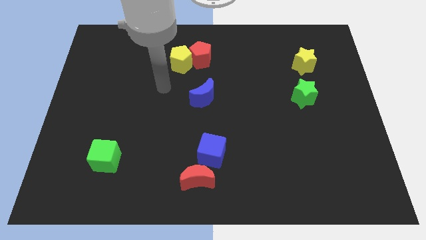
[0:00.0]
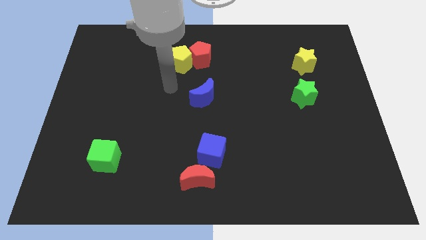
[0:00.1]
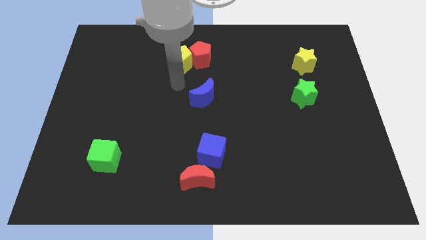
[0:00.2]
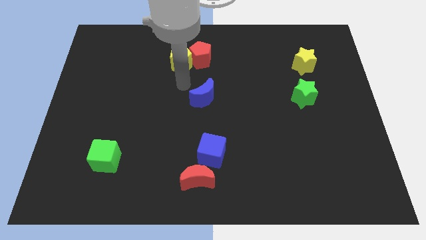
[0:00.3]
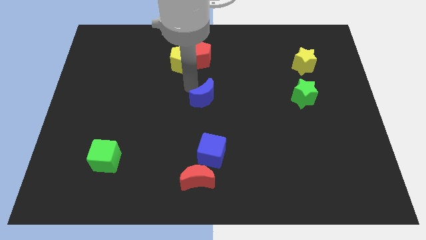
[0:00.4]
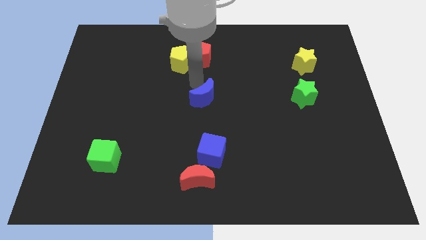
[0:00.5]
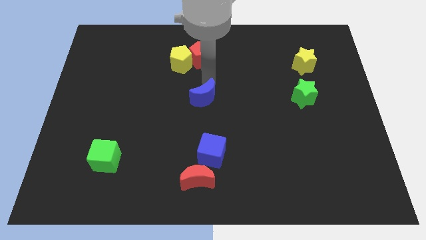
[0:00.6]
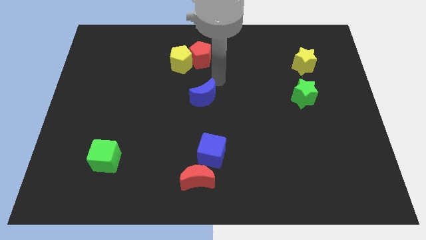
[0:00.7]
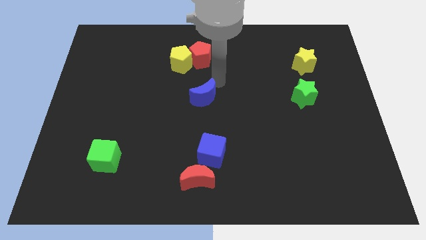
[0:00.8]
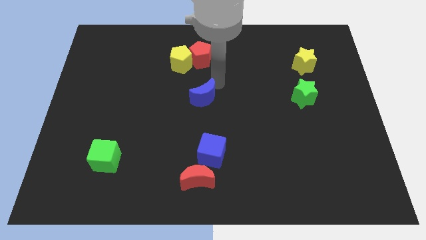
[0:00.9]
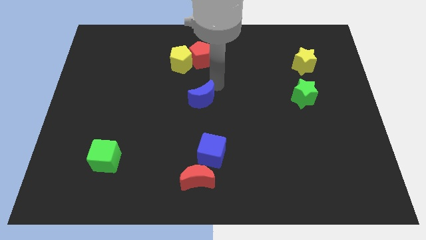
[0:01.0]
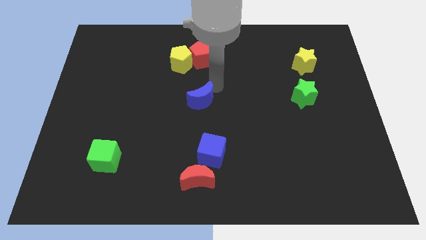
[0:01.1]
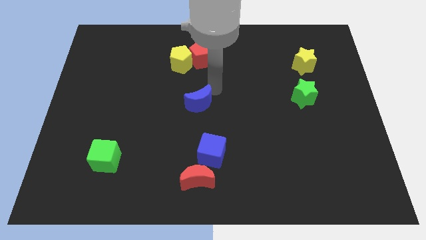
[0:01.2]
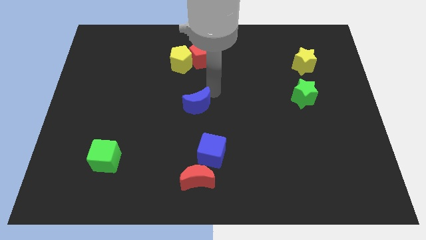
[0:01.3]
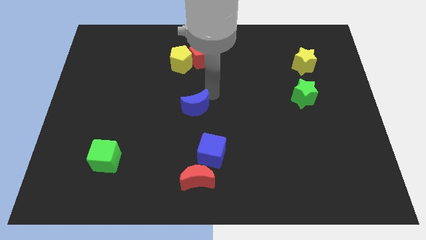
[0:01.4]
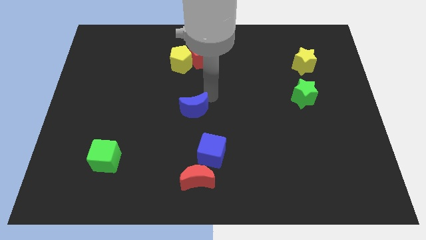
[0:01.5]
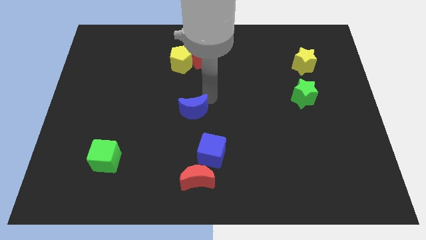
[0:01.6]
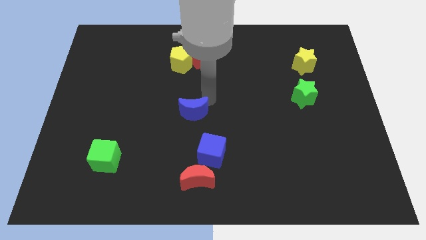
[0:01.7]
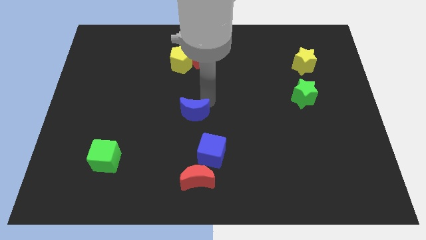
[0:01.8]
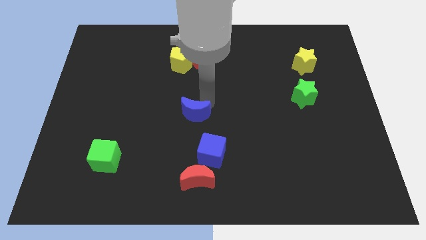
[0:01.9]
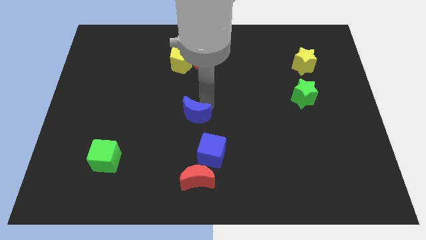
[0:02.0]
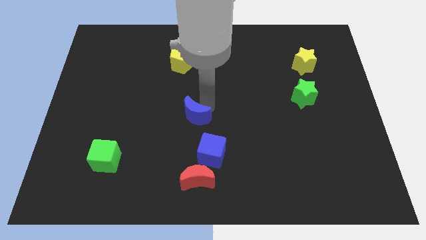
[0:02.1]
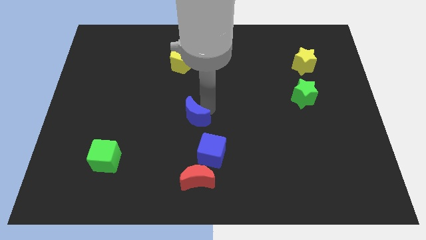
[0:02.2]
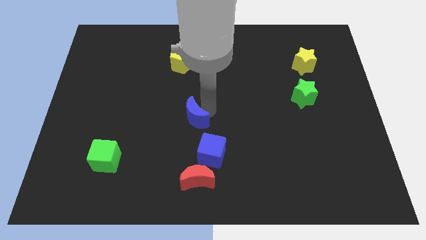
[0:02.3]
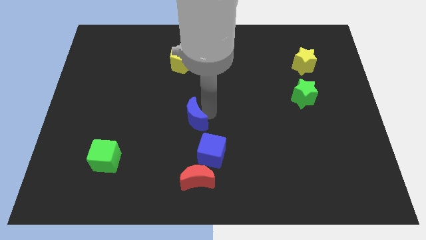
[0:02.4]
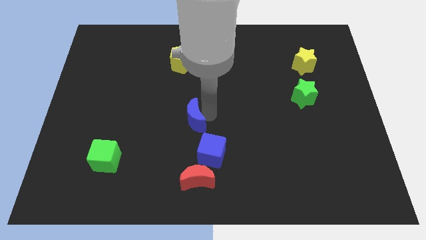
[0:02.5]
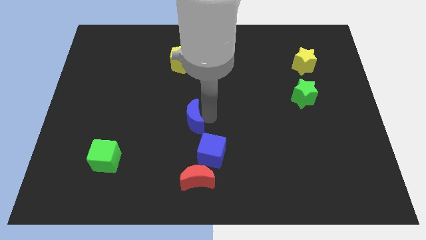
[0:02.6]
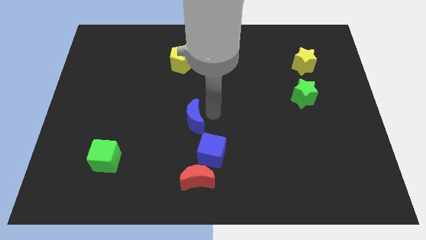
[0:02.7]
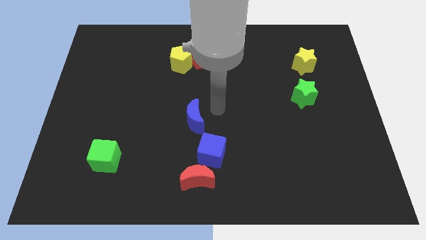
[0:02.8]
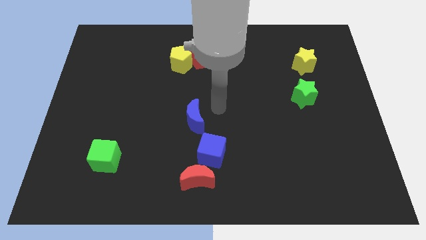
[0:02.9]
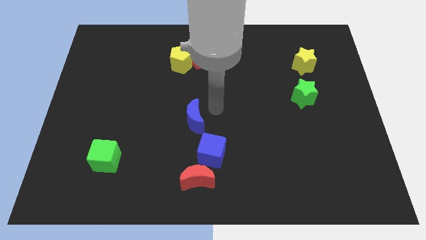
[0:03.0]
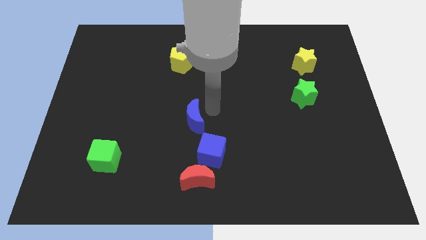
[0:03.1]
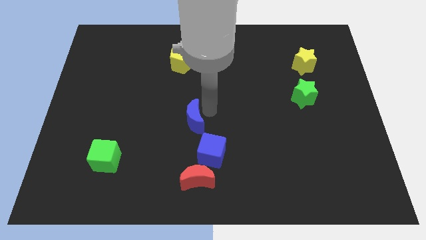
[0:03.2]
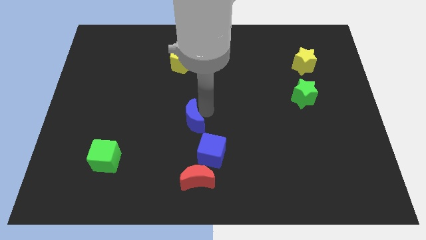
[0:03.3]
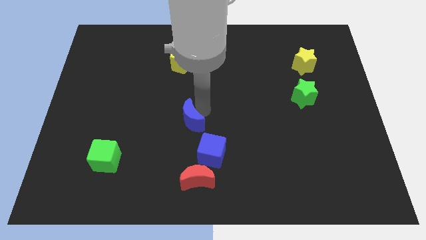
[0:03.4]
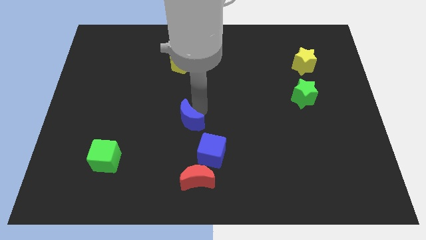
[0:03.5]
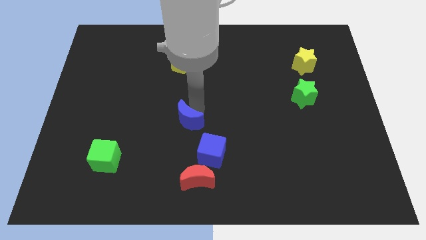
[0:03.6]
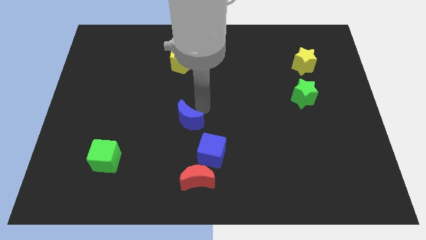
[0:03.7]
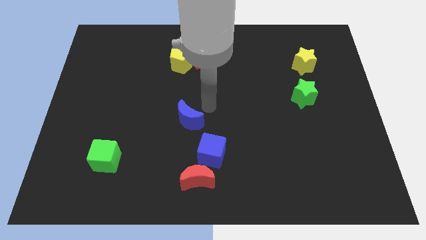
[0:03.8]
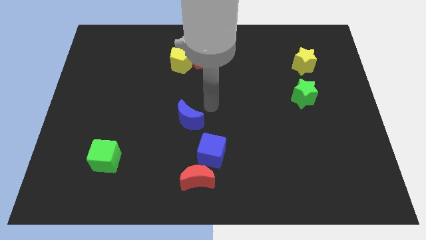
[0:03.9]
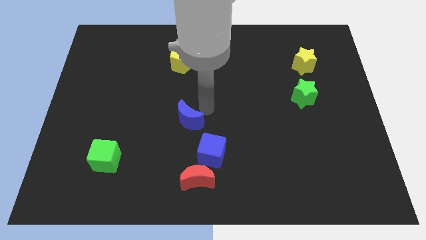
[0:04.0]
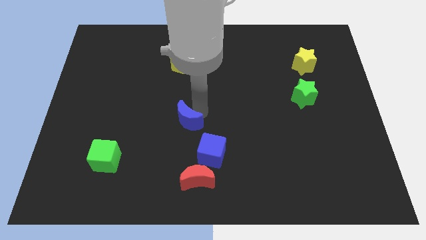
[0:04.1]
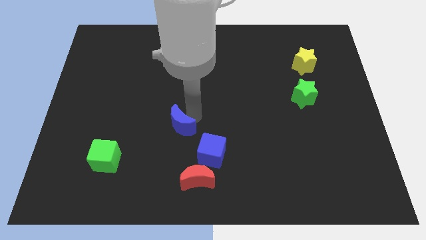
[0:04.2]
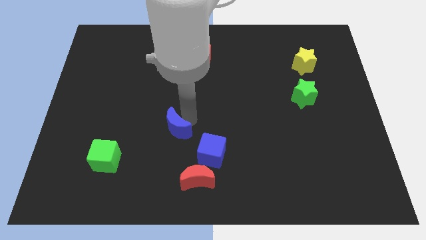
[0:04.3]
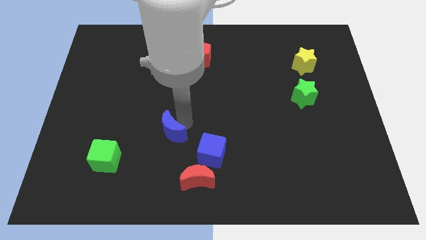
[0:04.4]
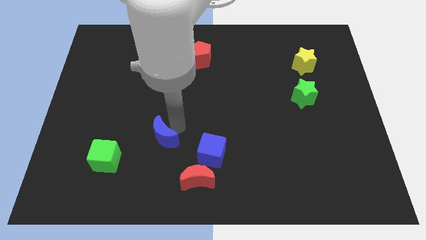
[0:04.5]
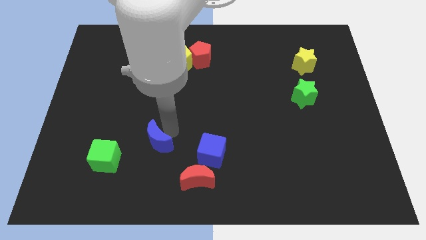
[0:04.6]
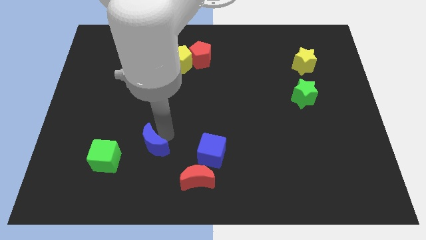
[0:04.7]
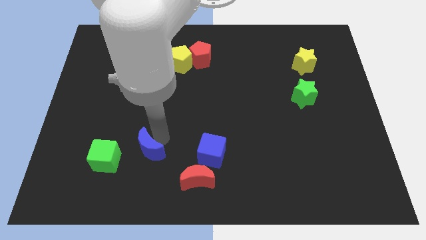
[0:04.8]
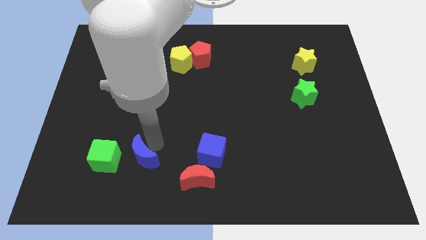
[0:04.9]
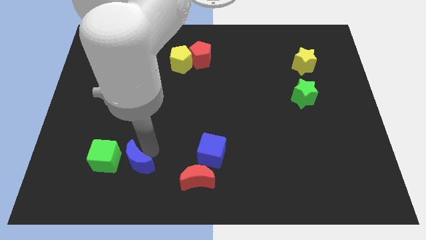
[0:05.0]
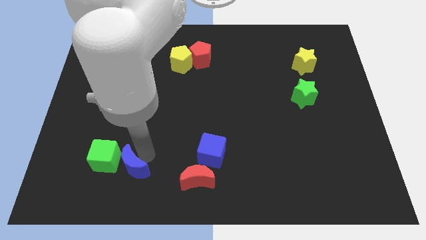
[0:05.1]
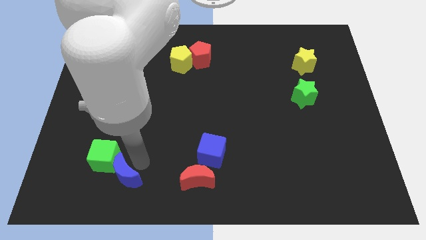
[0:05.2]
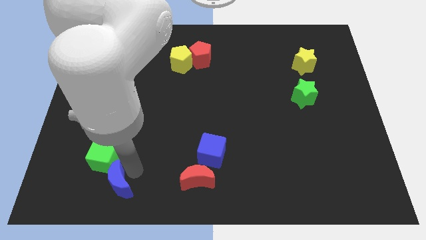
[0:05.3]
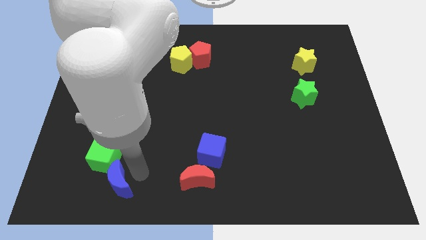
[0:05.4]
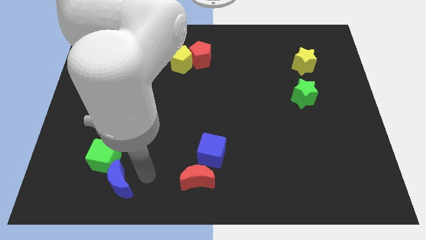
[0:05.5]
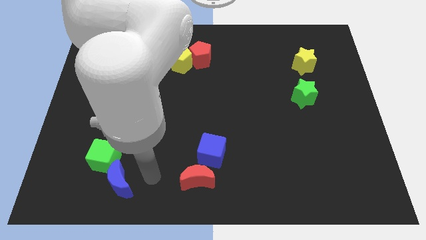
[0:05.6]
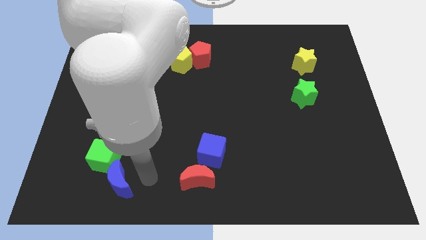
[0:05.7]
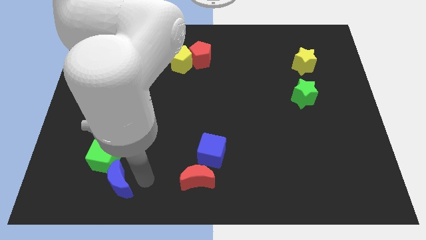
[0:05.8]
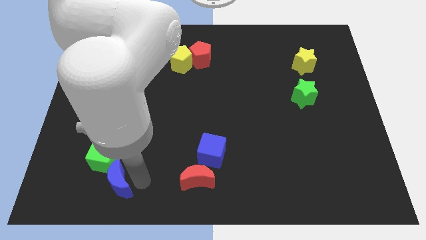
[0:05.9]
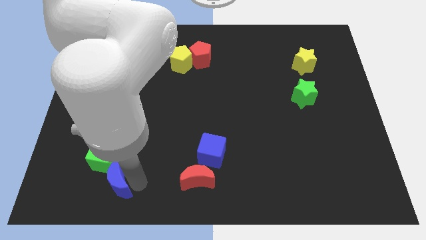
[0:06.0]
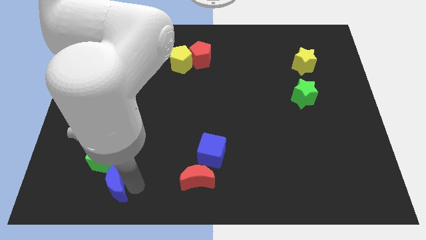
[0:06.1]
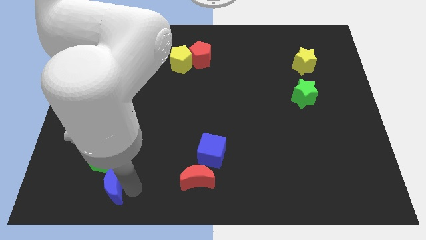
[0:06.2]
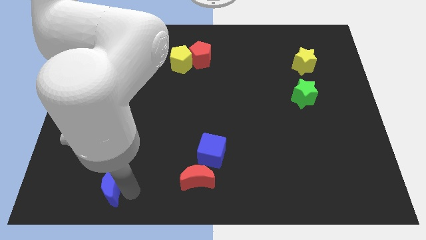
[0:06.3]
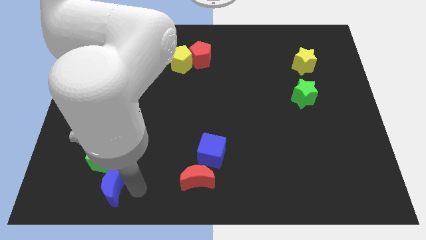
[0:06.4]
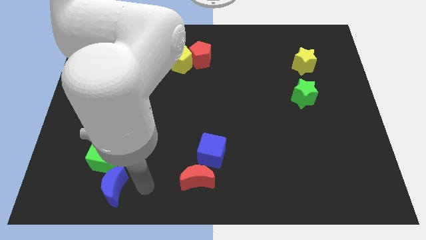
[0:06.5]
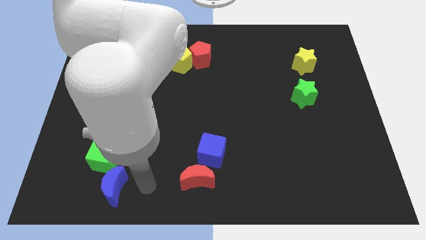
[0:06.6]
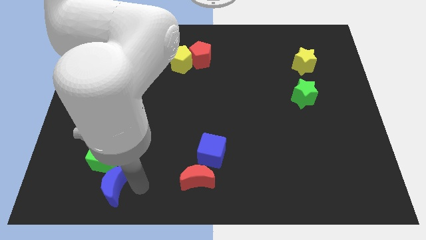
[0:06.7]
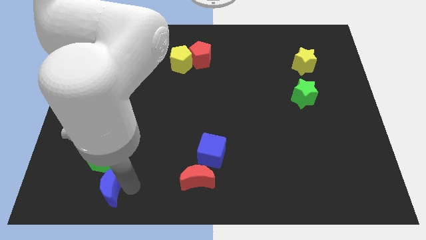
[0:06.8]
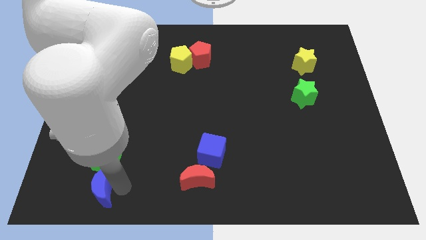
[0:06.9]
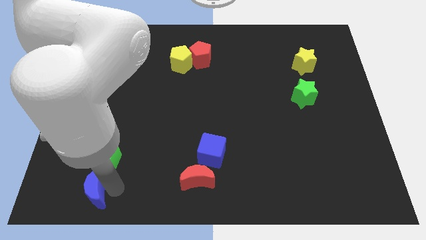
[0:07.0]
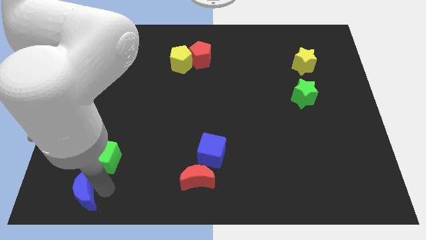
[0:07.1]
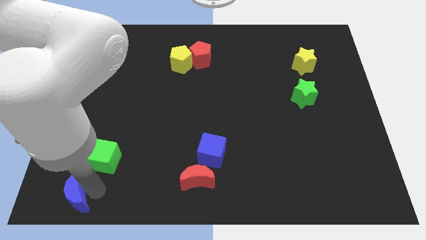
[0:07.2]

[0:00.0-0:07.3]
push the blue moon to the bottom left corner

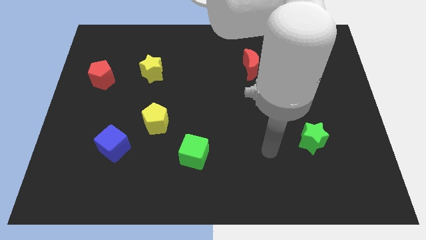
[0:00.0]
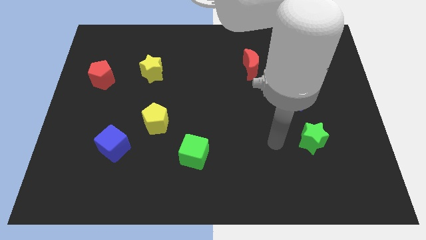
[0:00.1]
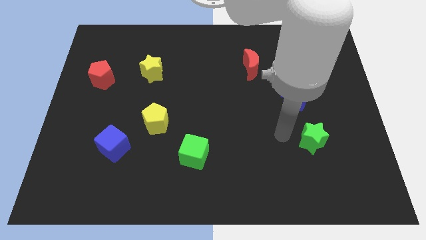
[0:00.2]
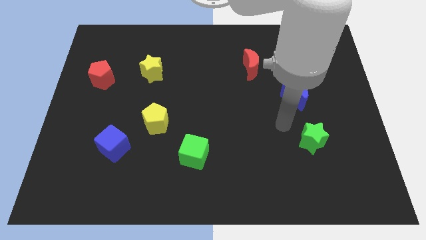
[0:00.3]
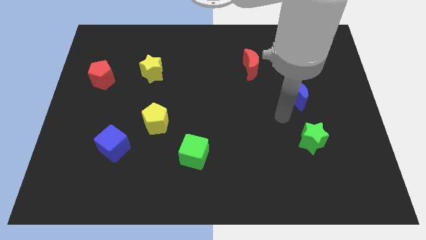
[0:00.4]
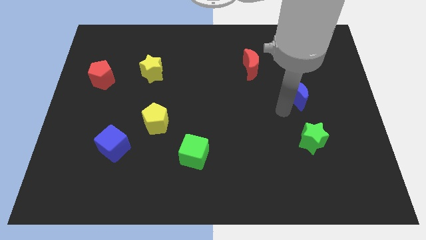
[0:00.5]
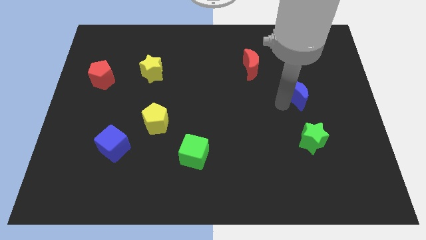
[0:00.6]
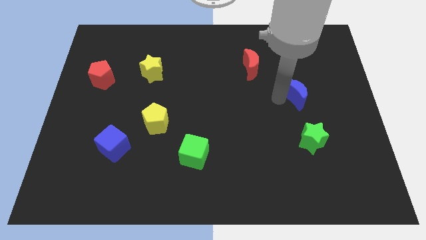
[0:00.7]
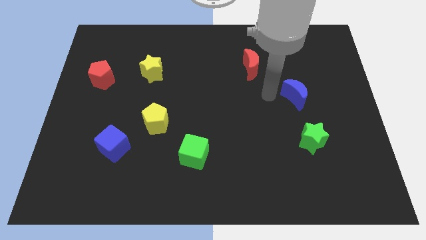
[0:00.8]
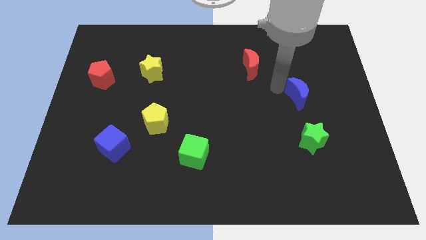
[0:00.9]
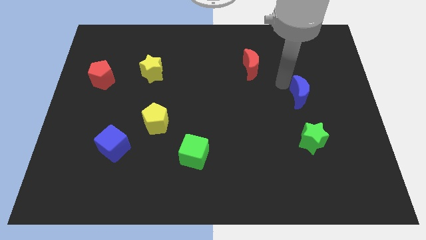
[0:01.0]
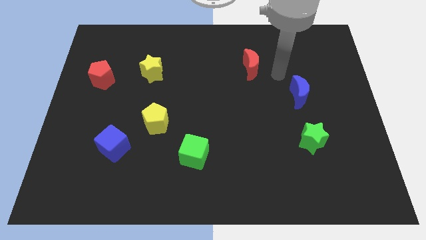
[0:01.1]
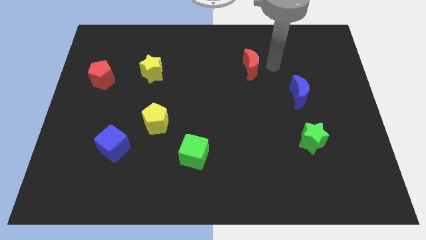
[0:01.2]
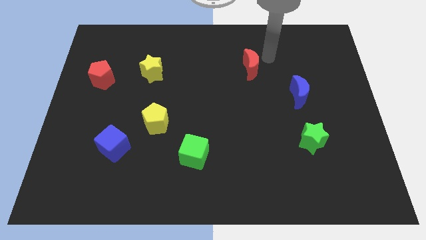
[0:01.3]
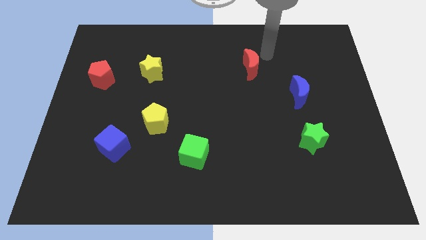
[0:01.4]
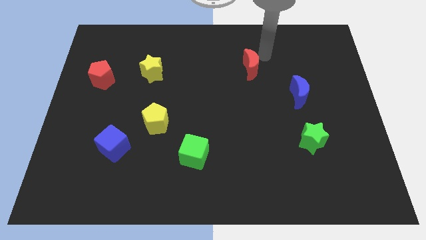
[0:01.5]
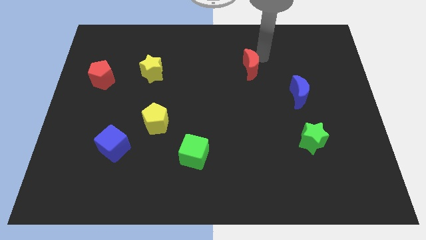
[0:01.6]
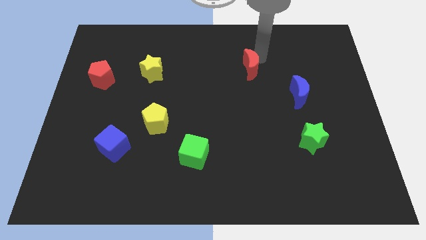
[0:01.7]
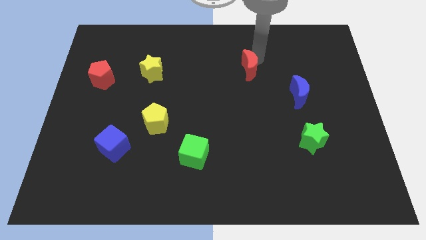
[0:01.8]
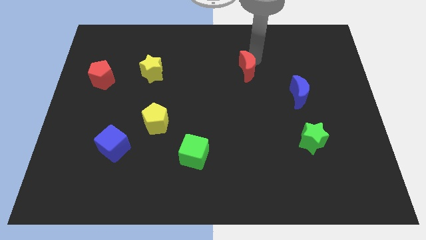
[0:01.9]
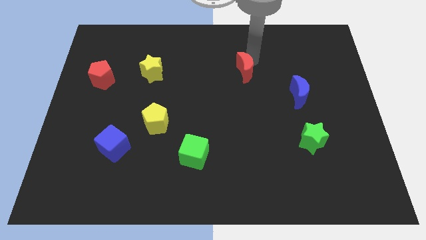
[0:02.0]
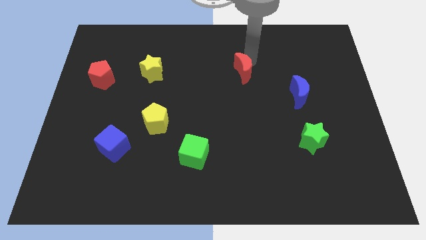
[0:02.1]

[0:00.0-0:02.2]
move the red moon to the center
